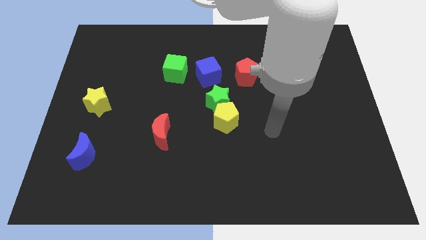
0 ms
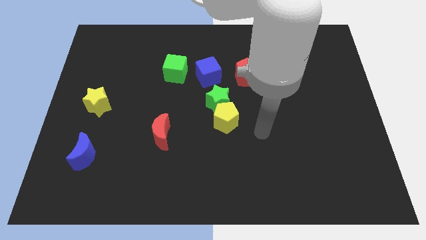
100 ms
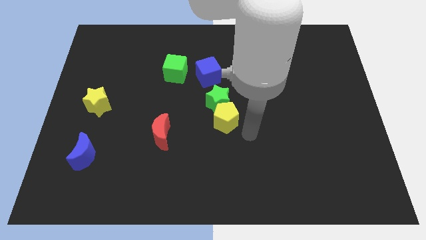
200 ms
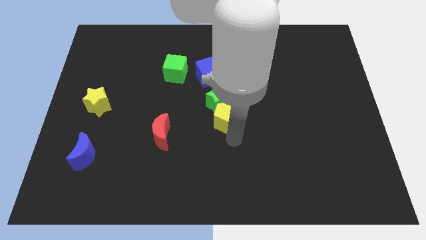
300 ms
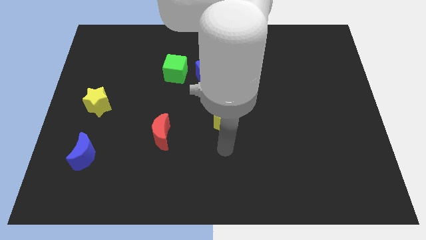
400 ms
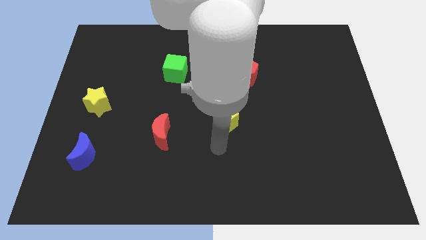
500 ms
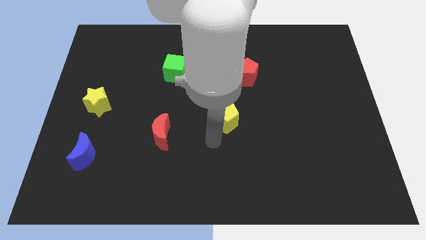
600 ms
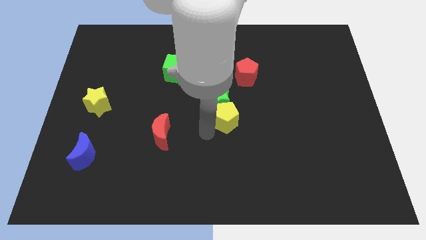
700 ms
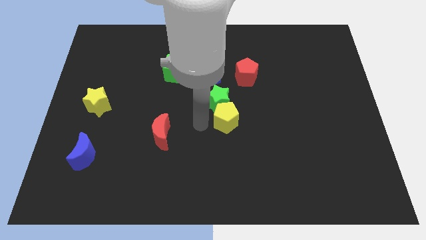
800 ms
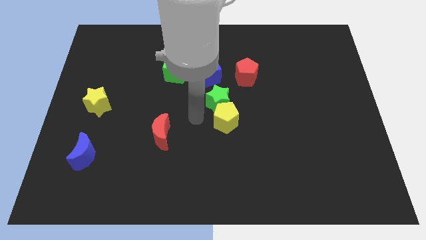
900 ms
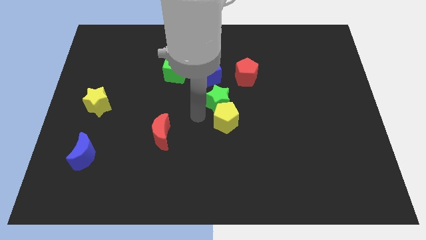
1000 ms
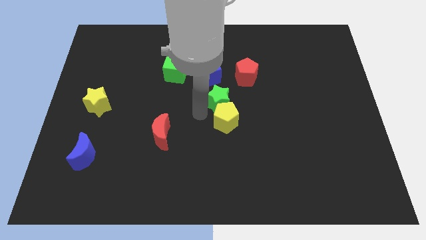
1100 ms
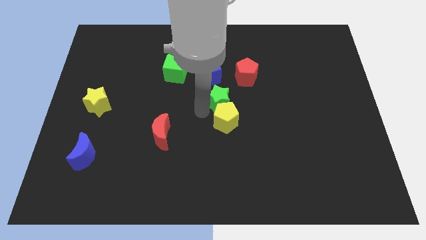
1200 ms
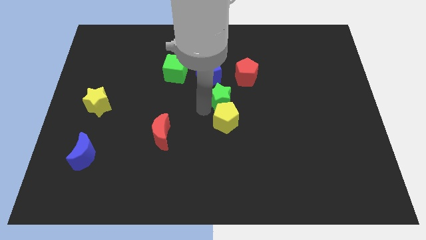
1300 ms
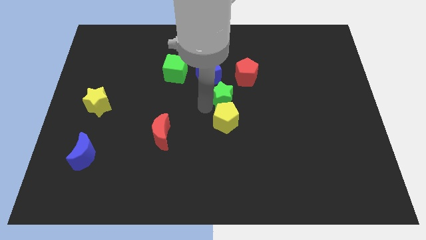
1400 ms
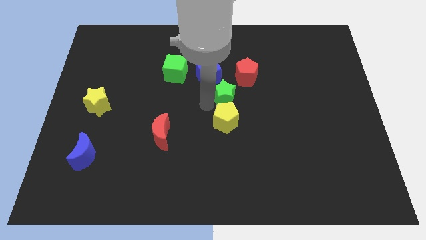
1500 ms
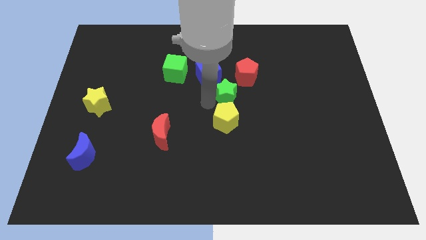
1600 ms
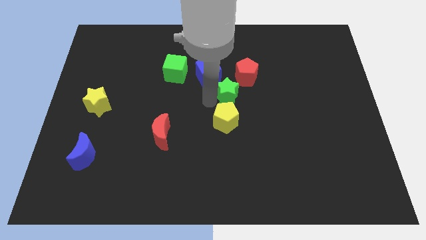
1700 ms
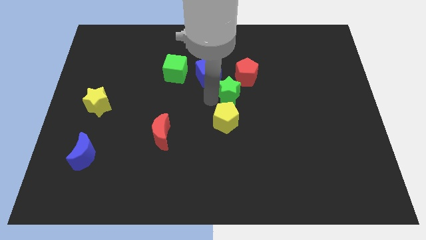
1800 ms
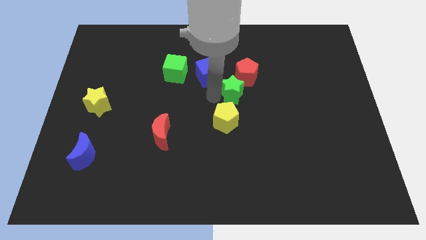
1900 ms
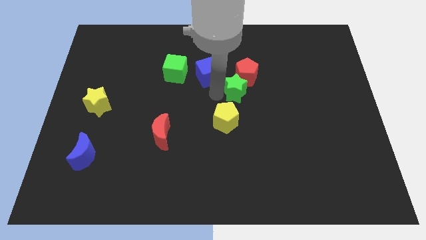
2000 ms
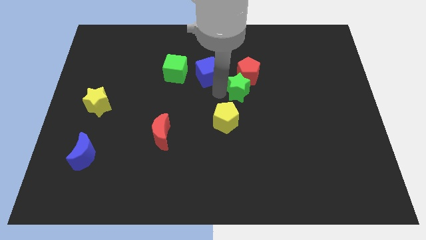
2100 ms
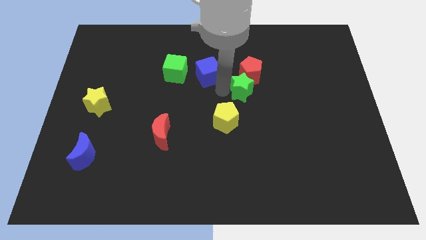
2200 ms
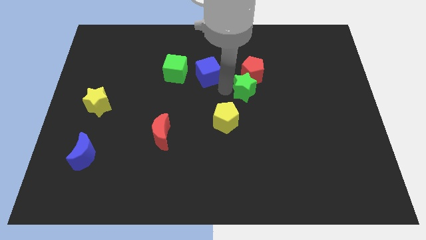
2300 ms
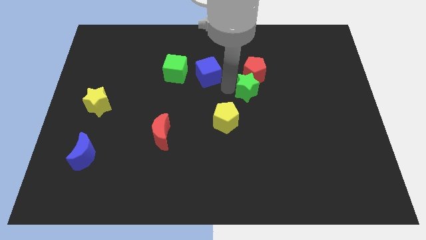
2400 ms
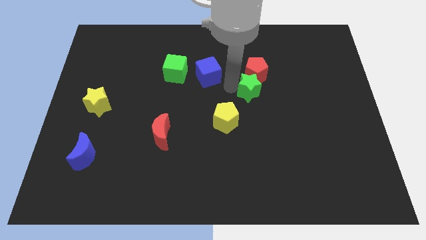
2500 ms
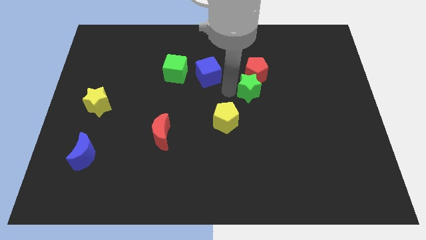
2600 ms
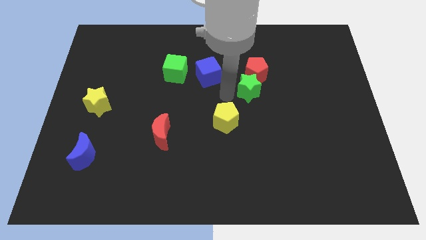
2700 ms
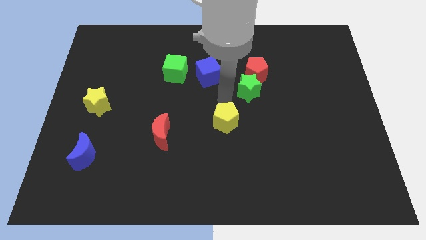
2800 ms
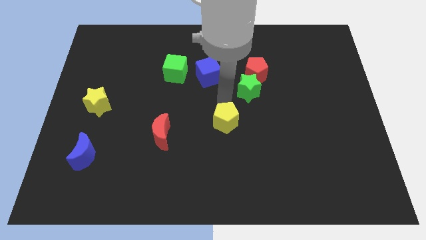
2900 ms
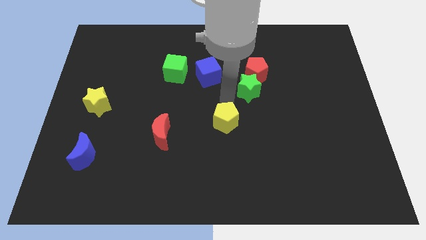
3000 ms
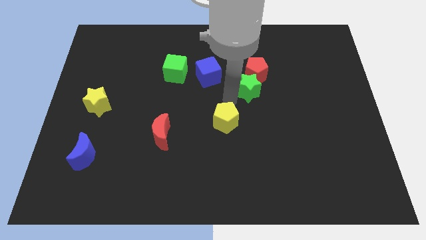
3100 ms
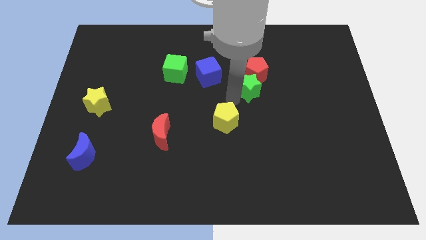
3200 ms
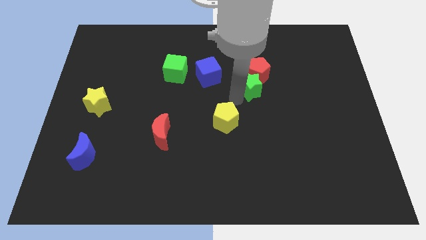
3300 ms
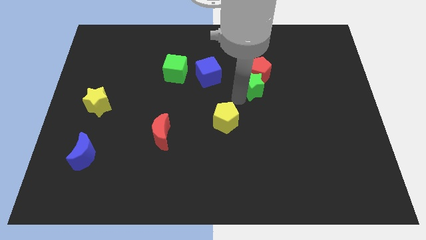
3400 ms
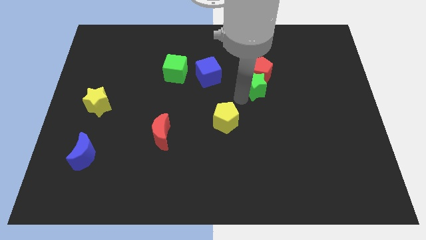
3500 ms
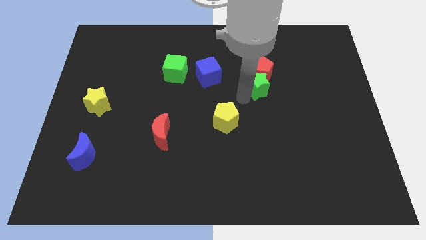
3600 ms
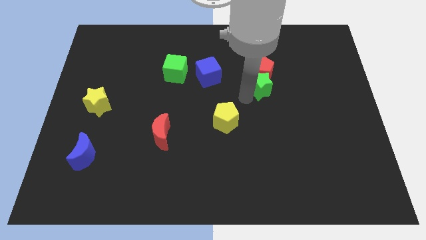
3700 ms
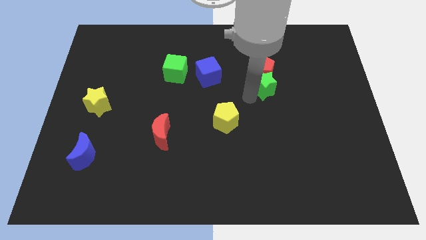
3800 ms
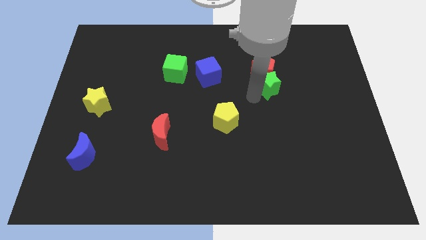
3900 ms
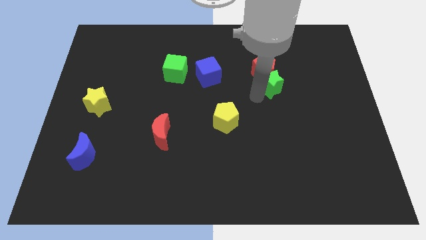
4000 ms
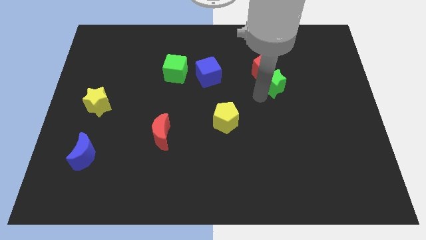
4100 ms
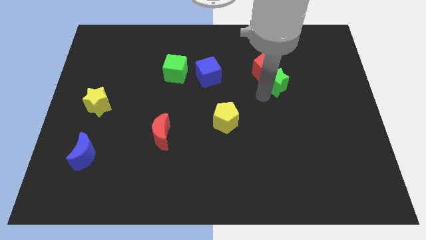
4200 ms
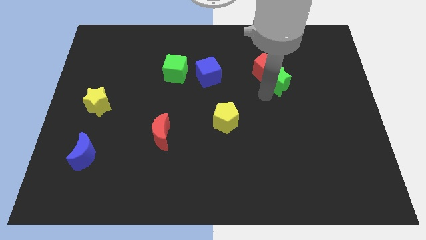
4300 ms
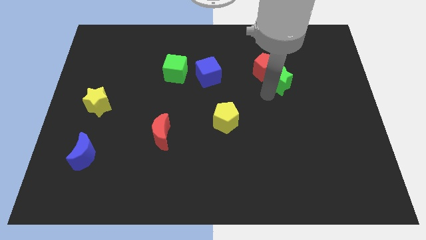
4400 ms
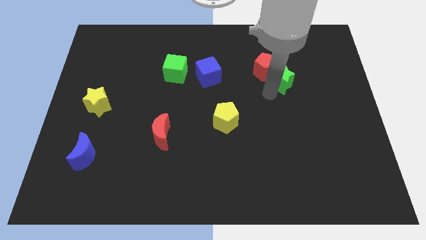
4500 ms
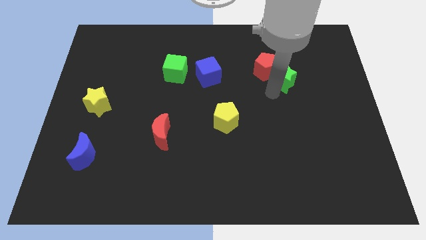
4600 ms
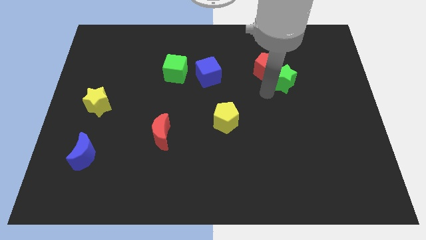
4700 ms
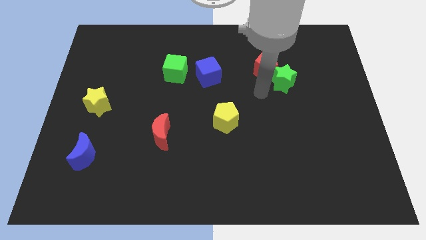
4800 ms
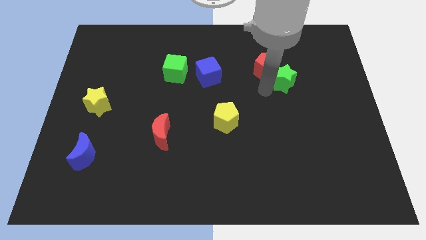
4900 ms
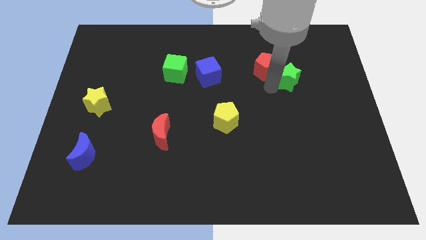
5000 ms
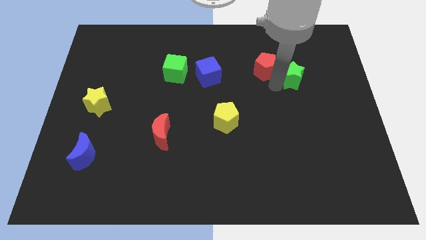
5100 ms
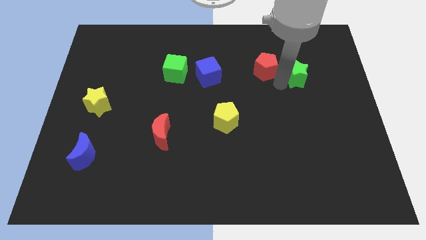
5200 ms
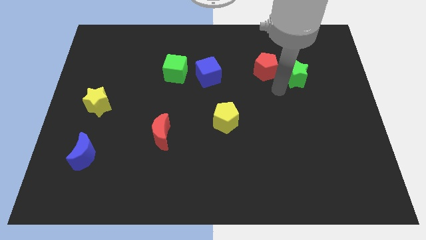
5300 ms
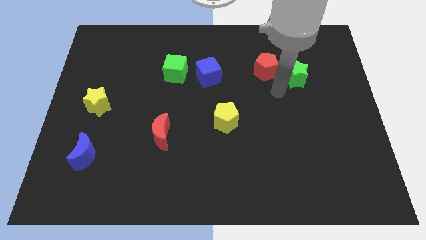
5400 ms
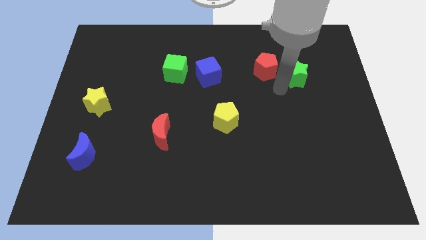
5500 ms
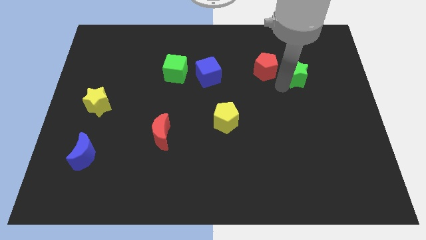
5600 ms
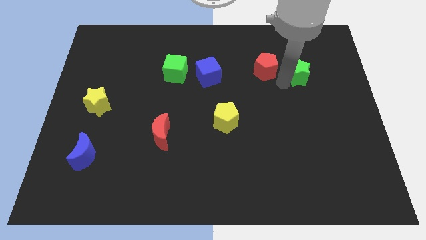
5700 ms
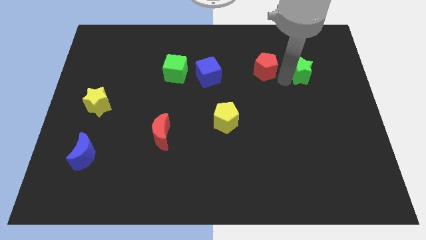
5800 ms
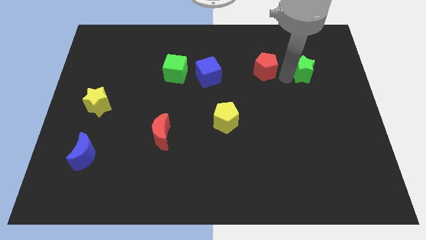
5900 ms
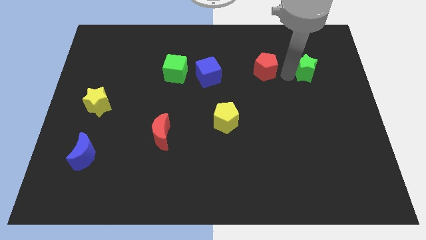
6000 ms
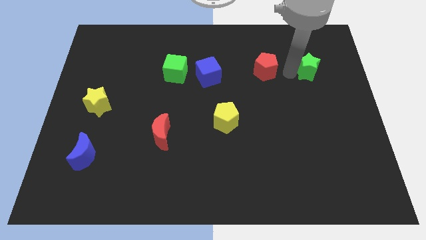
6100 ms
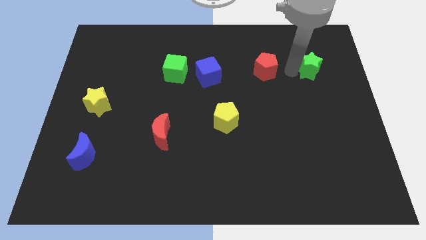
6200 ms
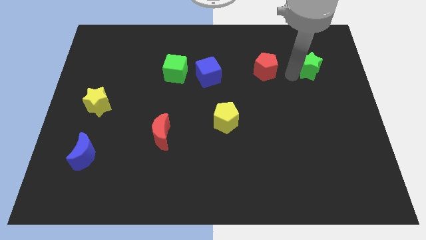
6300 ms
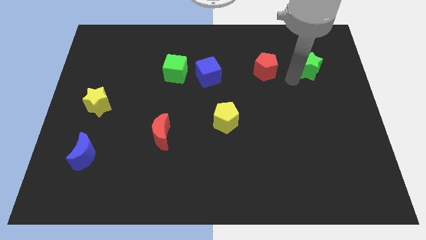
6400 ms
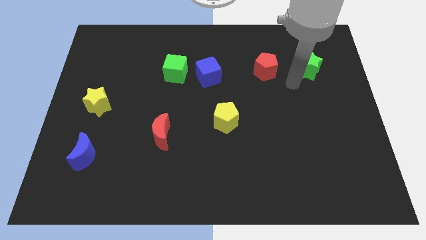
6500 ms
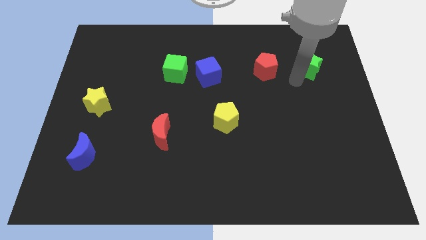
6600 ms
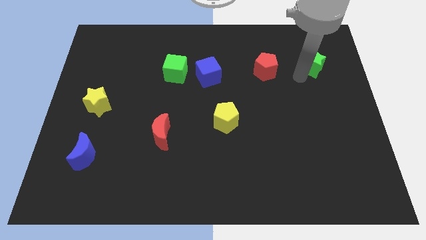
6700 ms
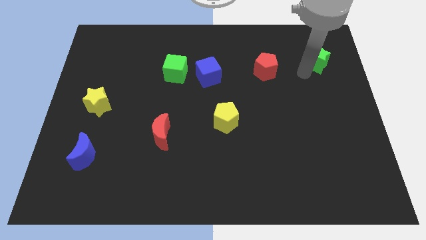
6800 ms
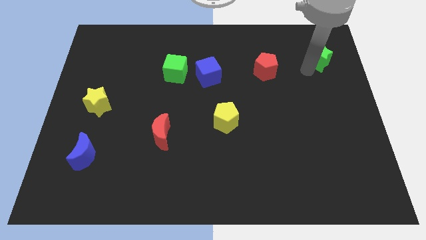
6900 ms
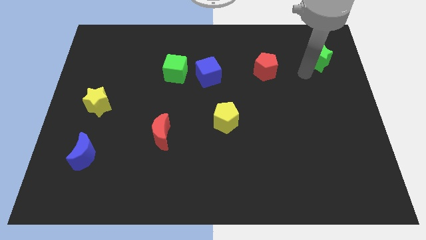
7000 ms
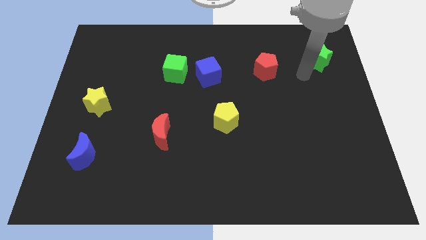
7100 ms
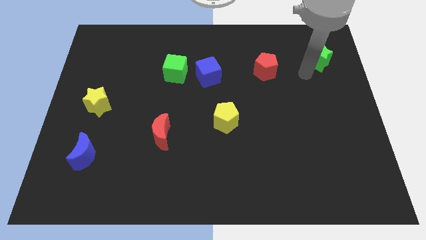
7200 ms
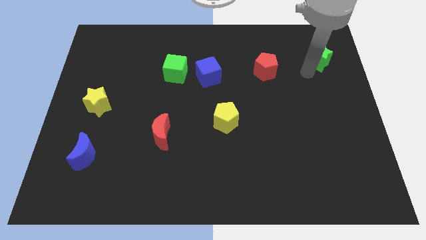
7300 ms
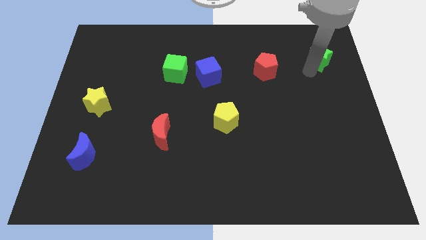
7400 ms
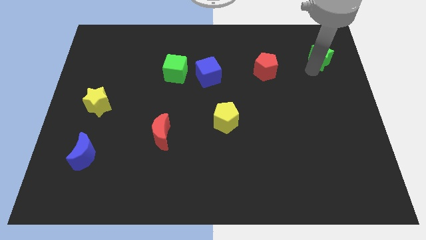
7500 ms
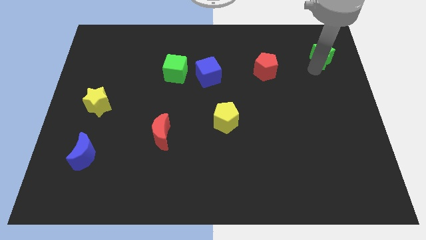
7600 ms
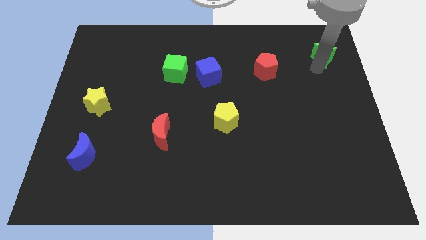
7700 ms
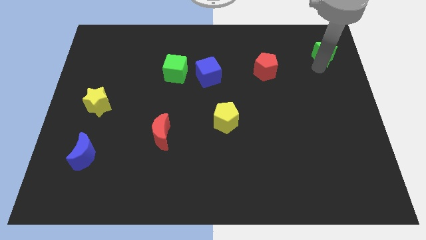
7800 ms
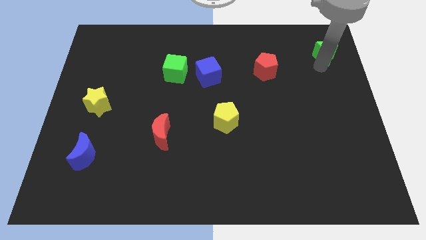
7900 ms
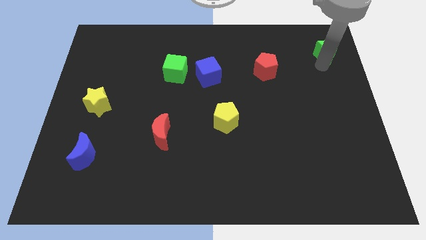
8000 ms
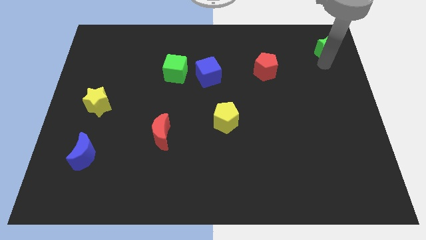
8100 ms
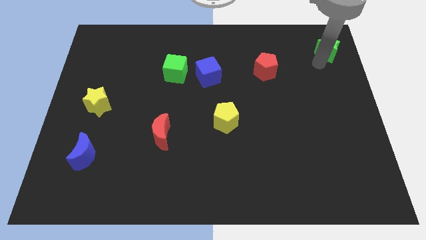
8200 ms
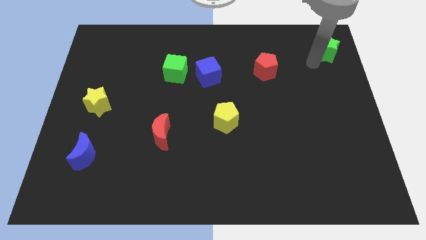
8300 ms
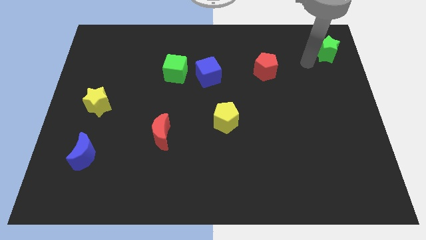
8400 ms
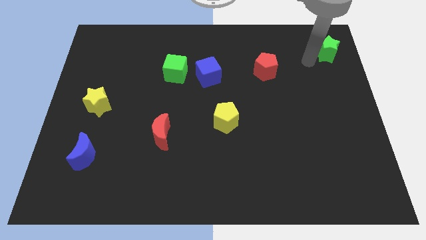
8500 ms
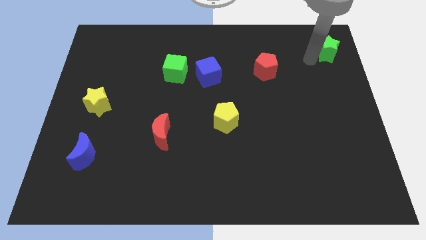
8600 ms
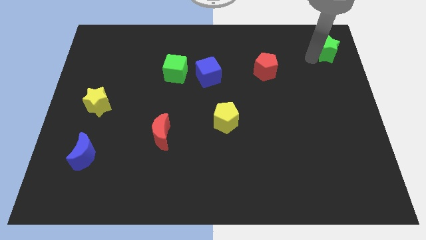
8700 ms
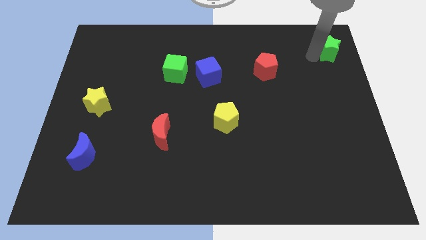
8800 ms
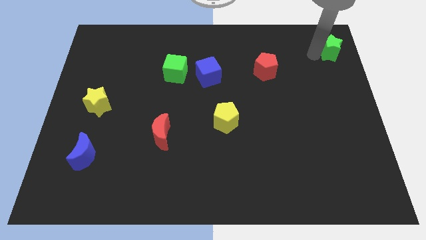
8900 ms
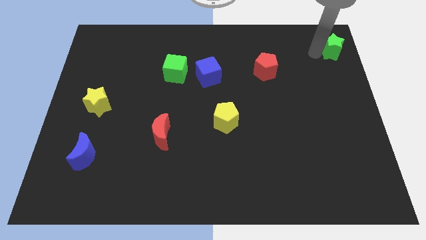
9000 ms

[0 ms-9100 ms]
slide the green star to the top right
